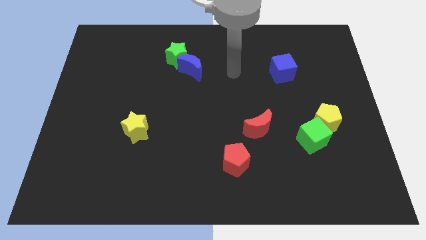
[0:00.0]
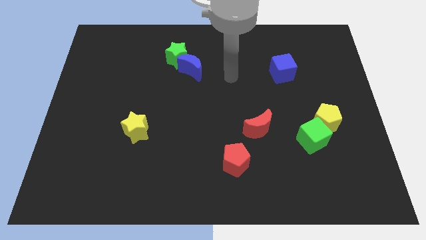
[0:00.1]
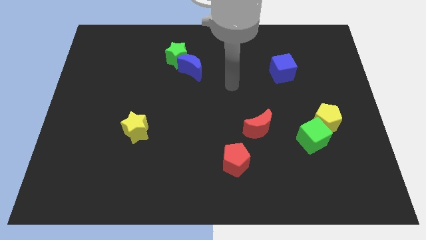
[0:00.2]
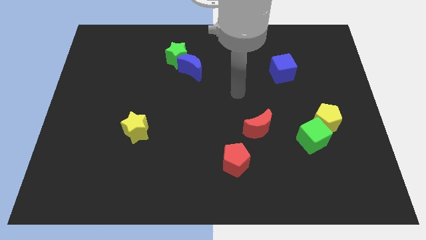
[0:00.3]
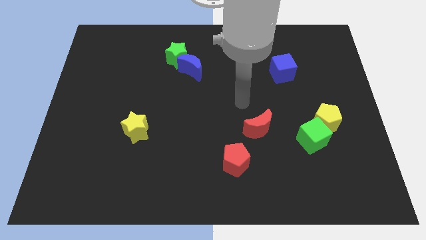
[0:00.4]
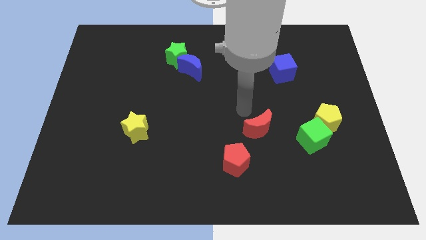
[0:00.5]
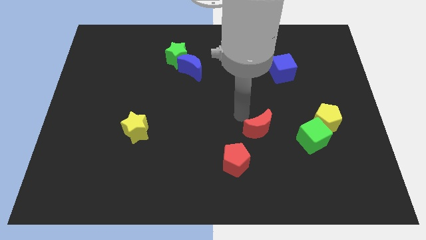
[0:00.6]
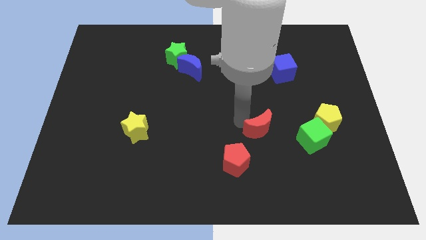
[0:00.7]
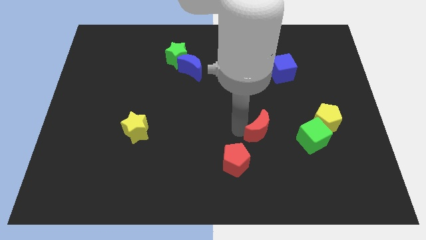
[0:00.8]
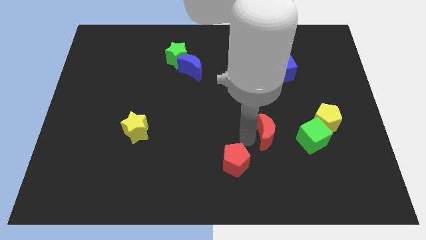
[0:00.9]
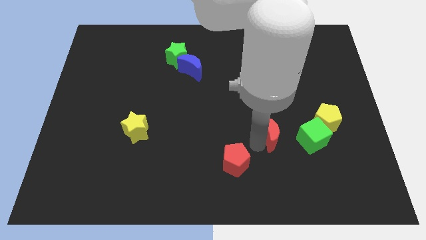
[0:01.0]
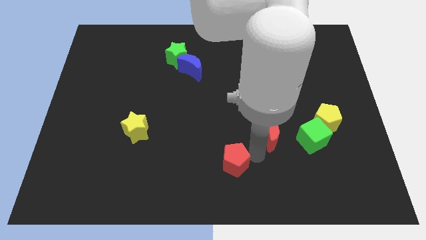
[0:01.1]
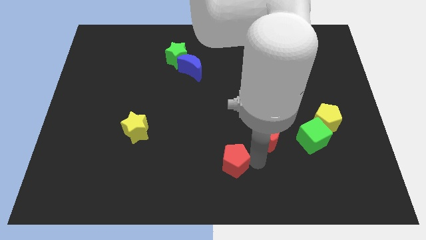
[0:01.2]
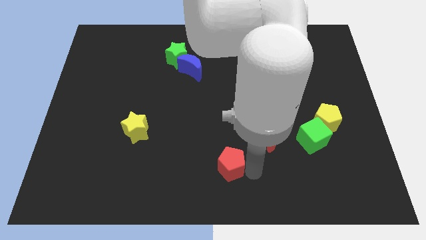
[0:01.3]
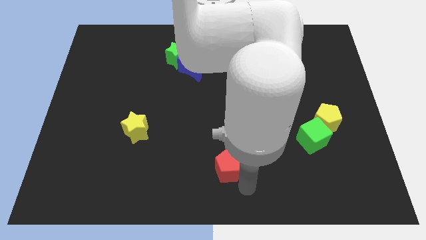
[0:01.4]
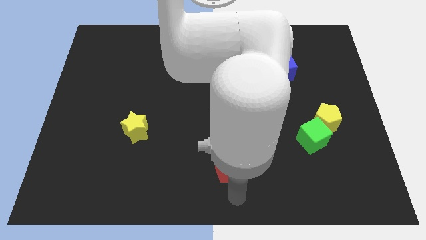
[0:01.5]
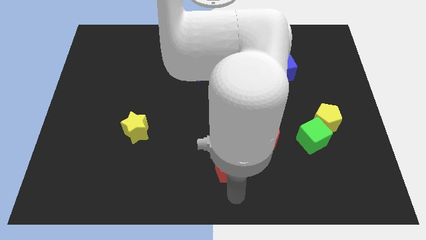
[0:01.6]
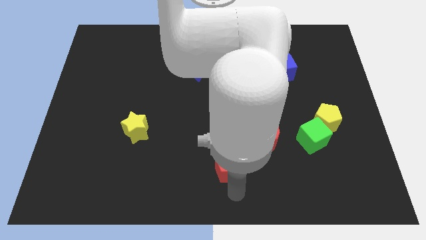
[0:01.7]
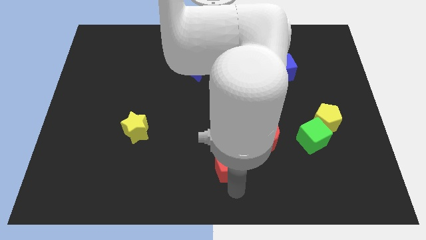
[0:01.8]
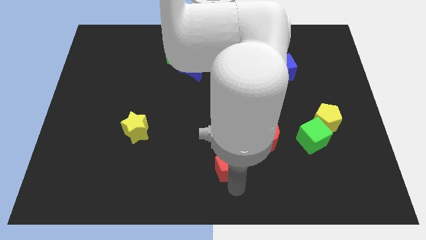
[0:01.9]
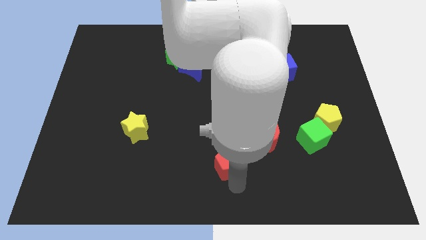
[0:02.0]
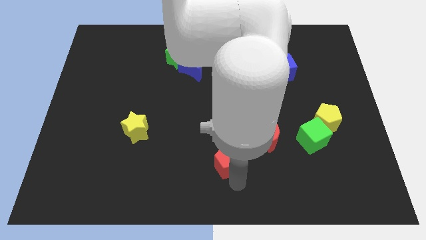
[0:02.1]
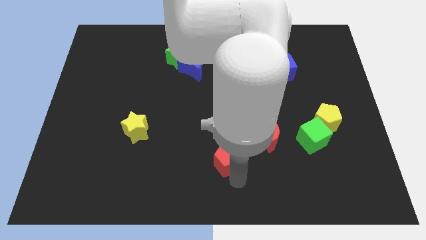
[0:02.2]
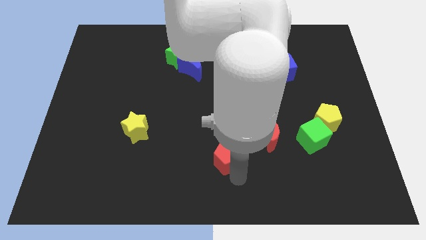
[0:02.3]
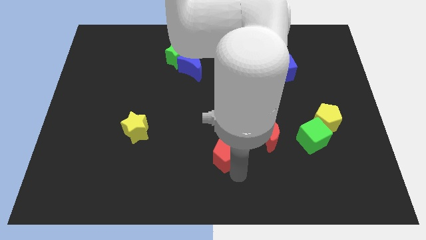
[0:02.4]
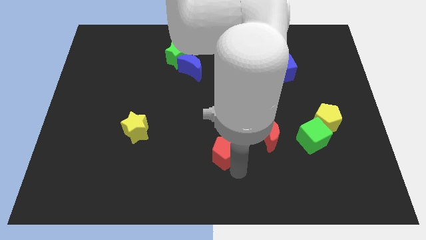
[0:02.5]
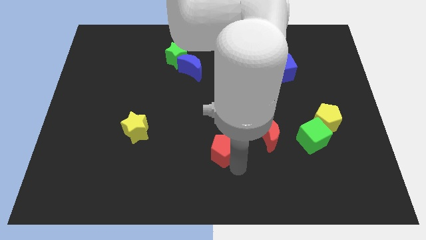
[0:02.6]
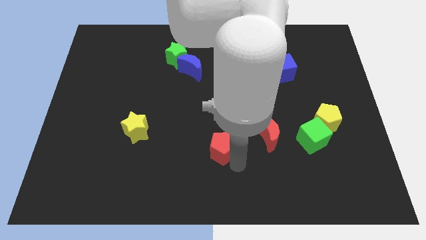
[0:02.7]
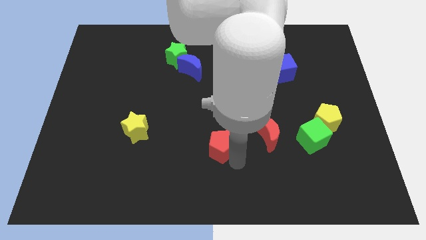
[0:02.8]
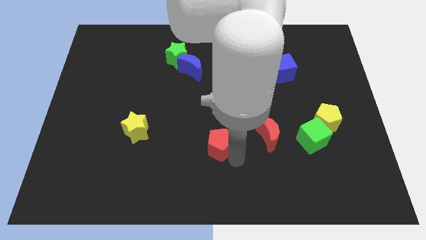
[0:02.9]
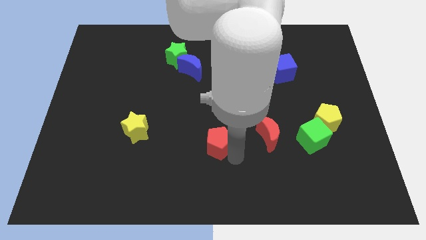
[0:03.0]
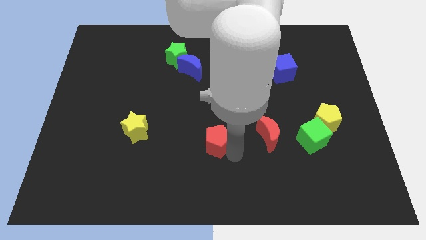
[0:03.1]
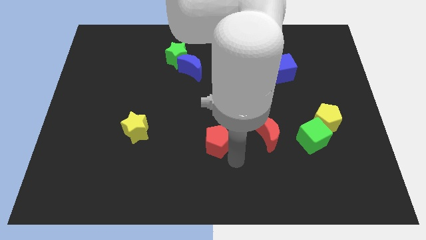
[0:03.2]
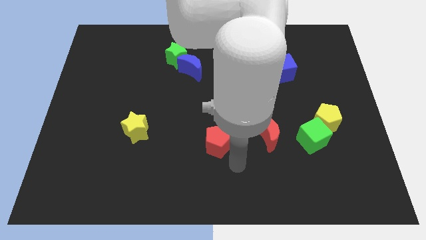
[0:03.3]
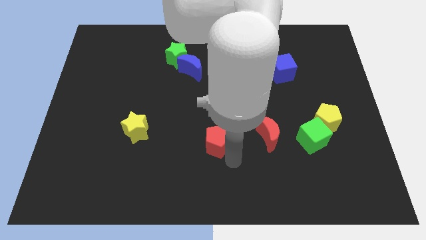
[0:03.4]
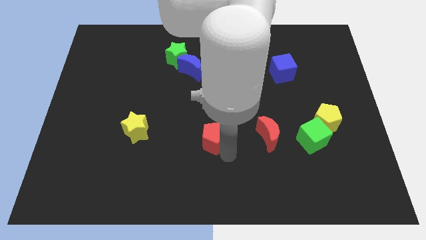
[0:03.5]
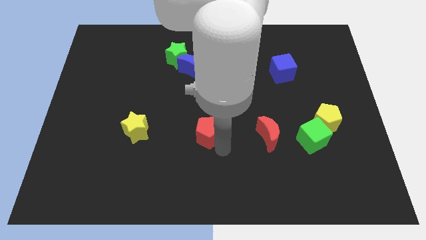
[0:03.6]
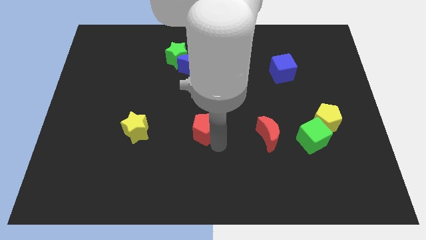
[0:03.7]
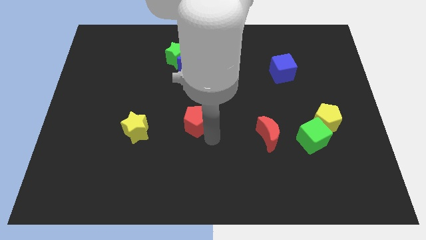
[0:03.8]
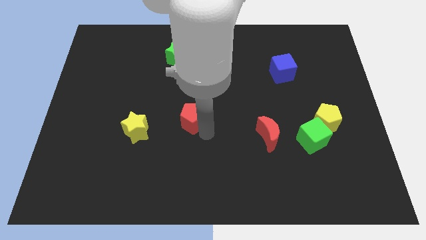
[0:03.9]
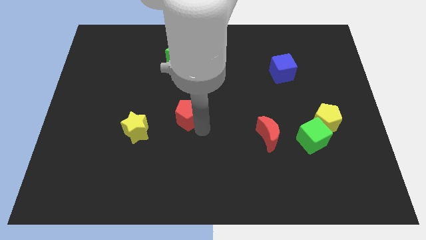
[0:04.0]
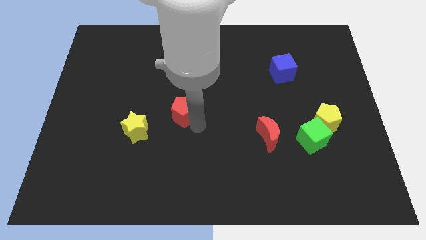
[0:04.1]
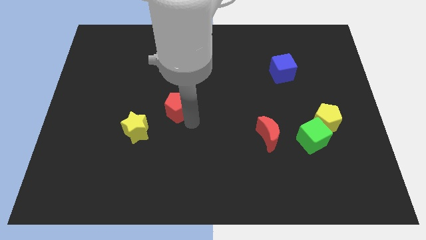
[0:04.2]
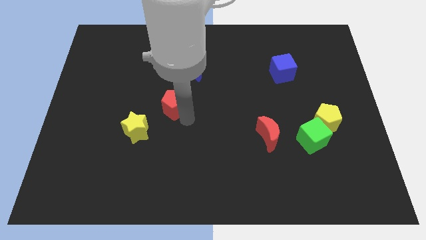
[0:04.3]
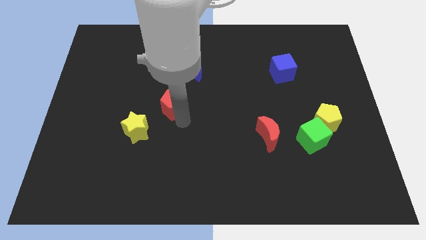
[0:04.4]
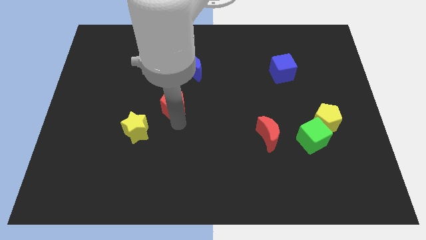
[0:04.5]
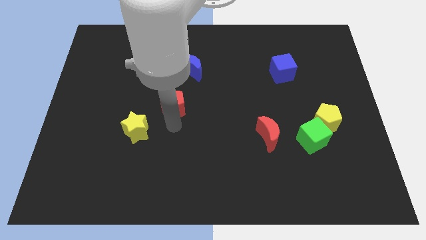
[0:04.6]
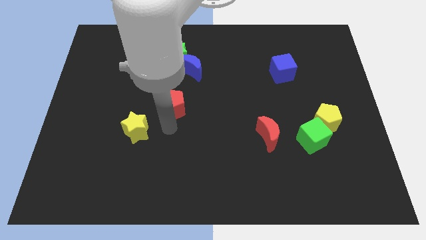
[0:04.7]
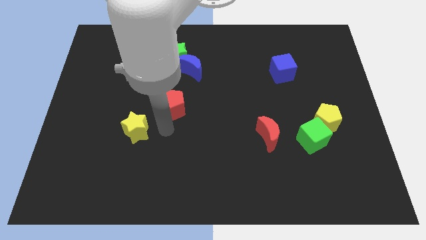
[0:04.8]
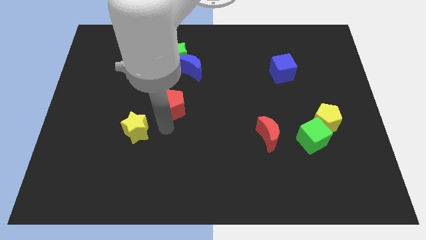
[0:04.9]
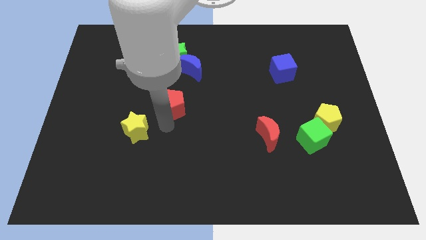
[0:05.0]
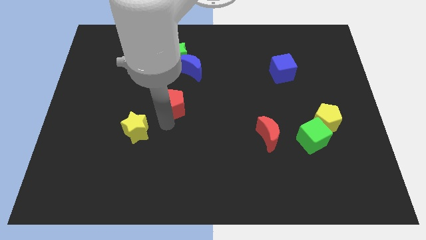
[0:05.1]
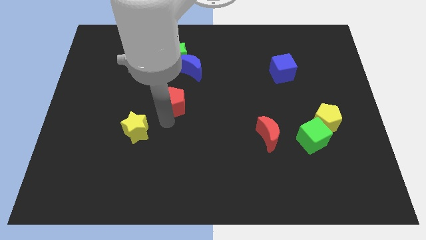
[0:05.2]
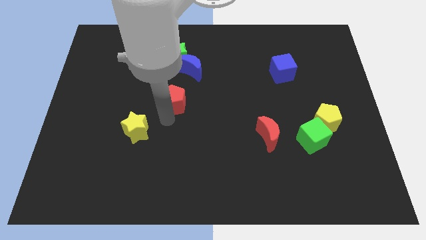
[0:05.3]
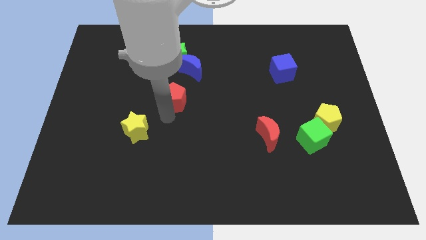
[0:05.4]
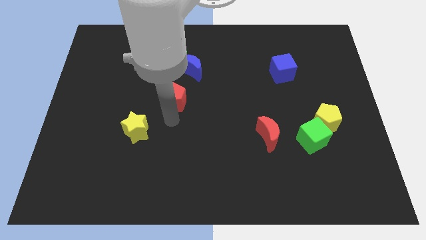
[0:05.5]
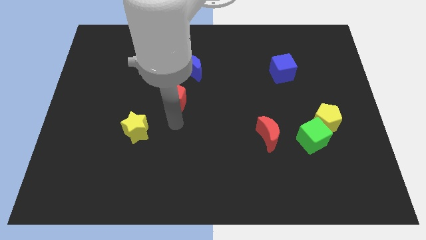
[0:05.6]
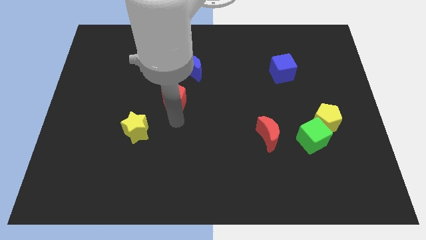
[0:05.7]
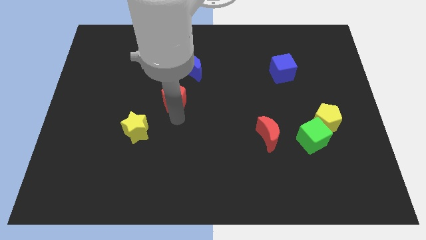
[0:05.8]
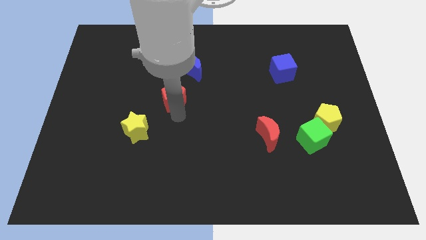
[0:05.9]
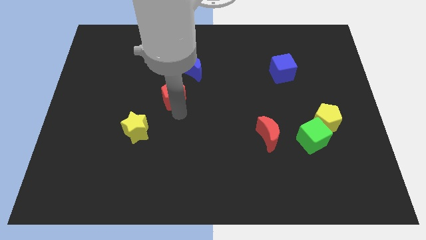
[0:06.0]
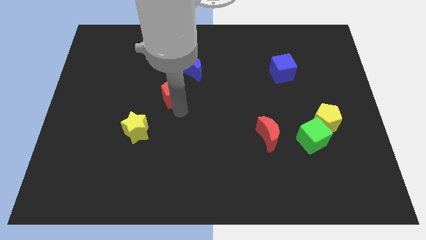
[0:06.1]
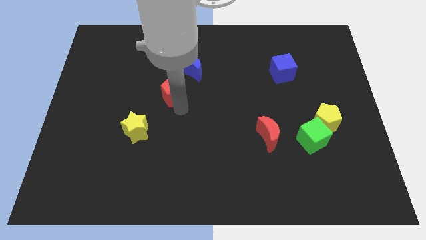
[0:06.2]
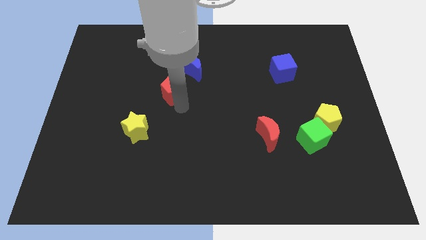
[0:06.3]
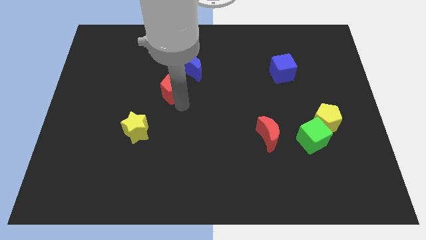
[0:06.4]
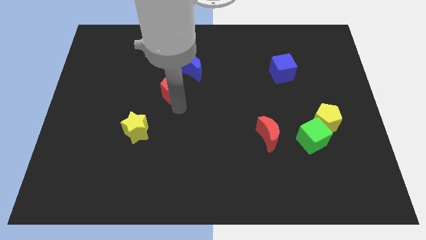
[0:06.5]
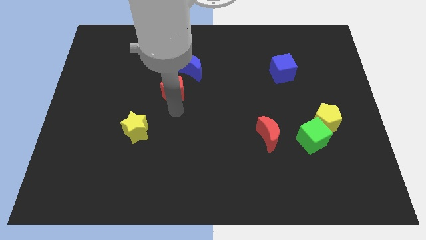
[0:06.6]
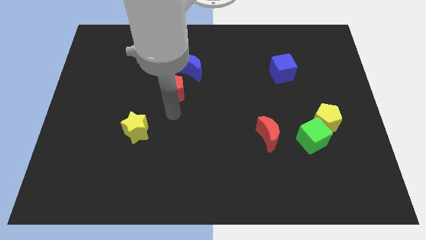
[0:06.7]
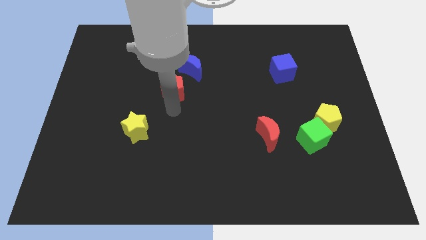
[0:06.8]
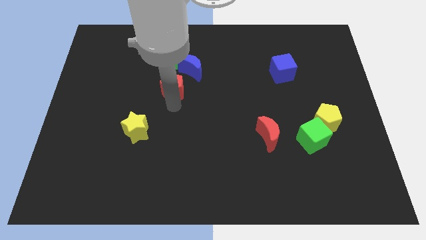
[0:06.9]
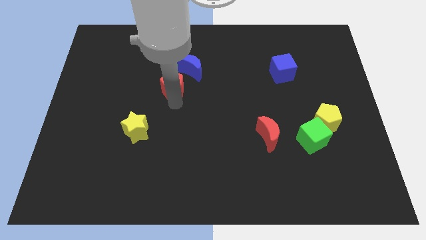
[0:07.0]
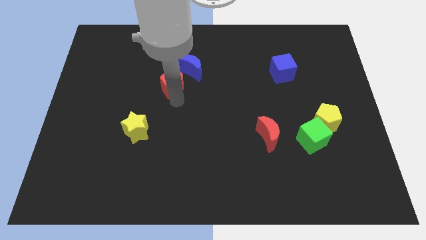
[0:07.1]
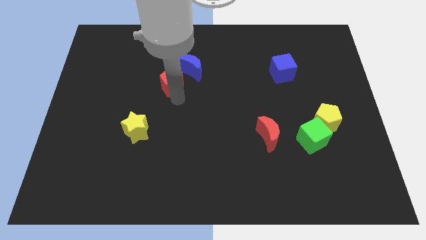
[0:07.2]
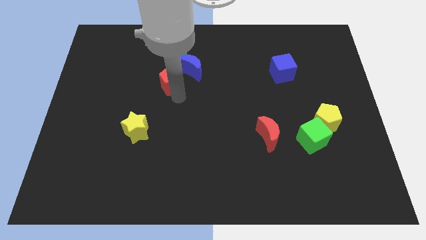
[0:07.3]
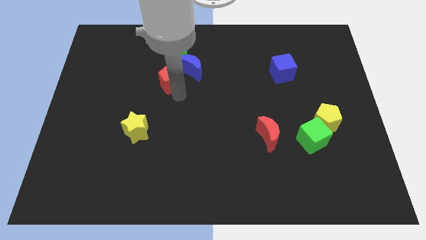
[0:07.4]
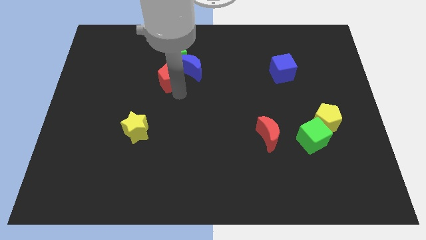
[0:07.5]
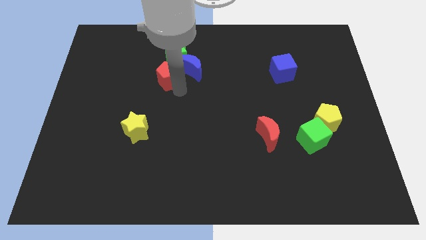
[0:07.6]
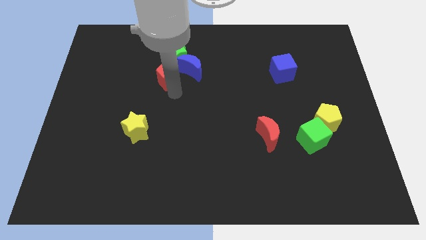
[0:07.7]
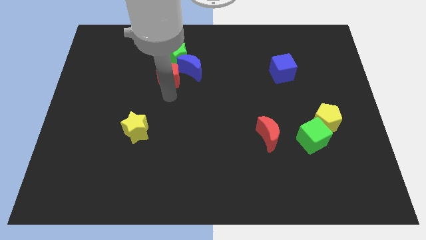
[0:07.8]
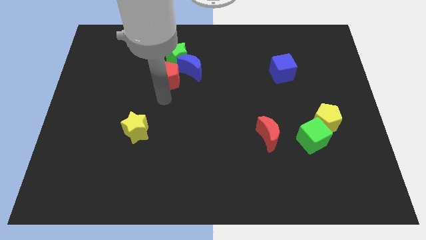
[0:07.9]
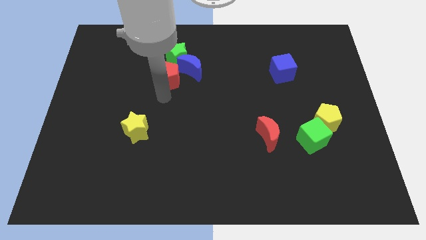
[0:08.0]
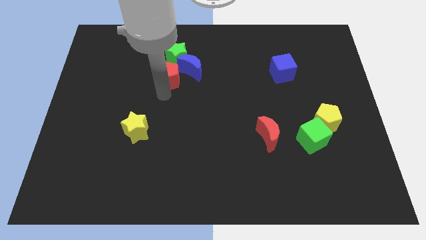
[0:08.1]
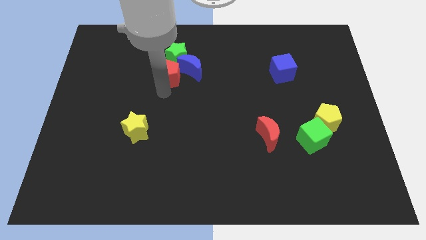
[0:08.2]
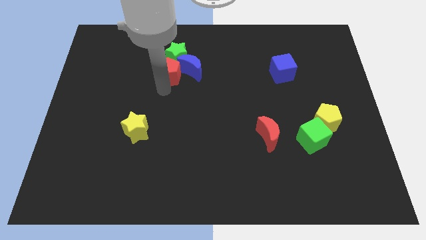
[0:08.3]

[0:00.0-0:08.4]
push the red pentagon towards the green star
